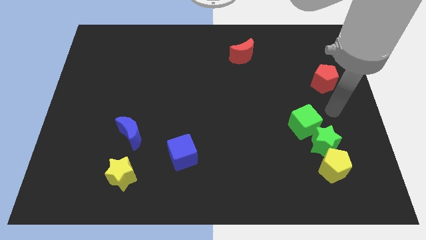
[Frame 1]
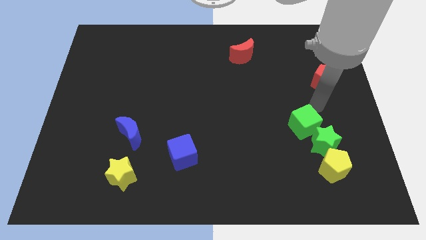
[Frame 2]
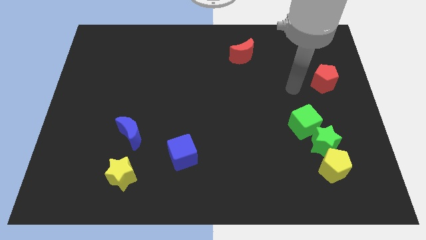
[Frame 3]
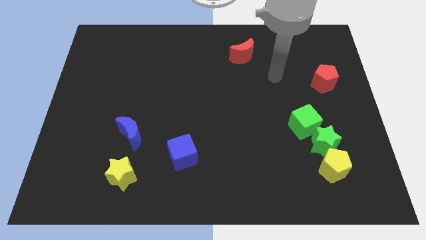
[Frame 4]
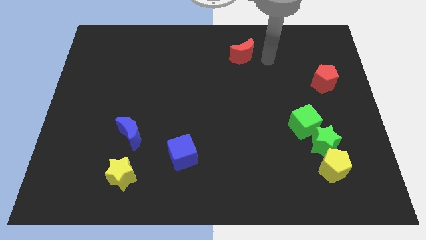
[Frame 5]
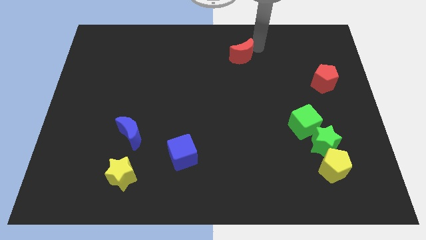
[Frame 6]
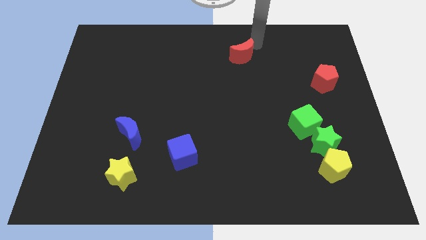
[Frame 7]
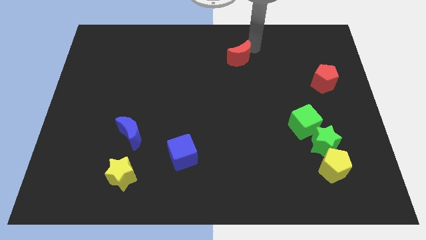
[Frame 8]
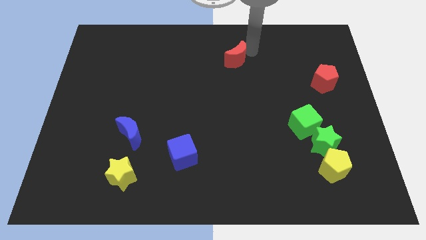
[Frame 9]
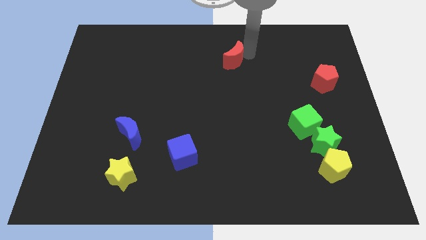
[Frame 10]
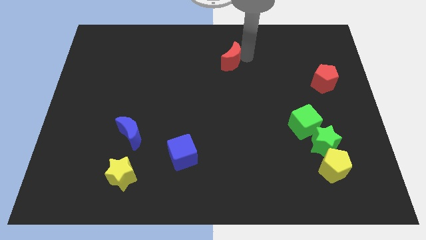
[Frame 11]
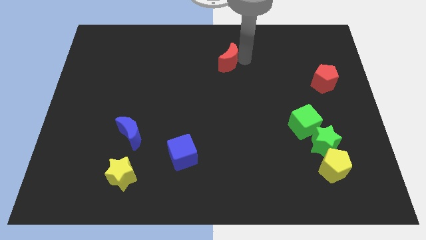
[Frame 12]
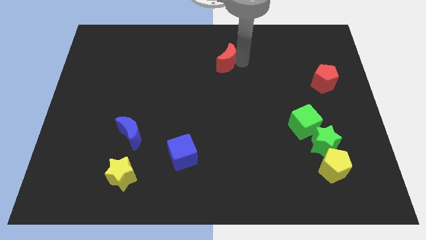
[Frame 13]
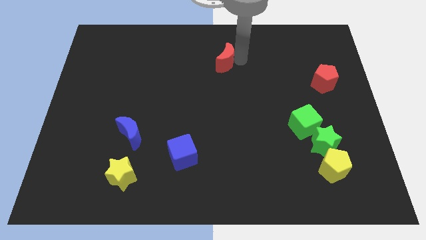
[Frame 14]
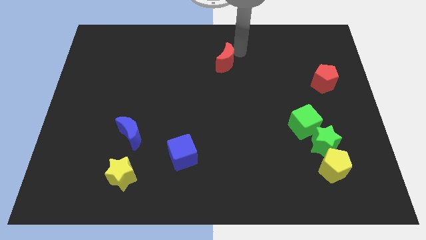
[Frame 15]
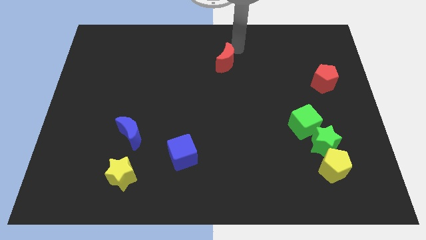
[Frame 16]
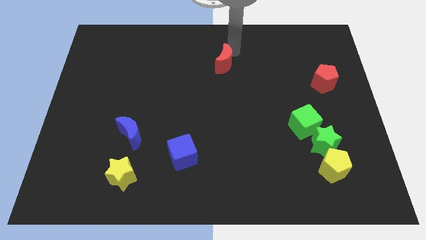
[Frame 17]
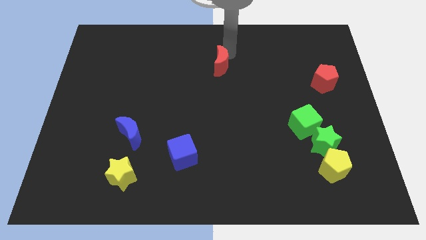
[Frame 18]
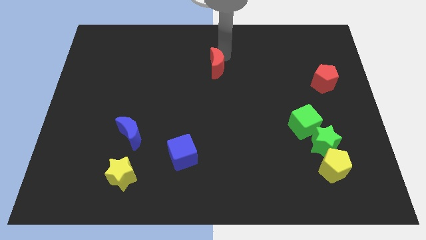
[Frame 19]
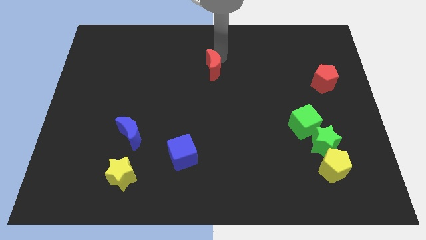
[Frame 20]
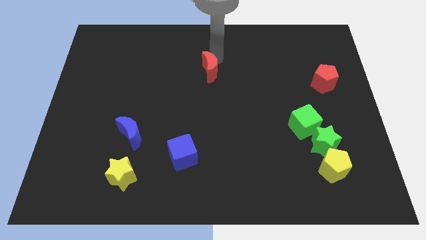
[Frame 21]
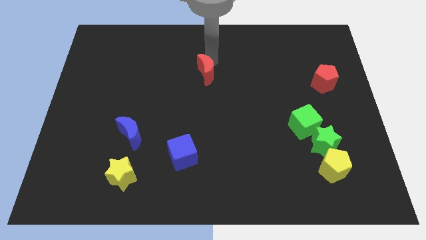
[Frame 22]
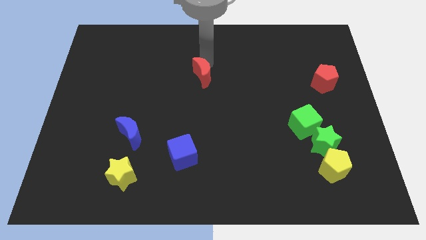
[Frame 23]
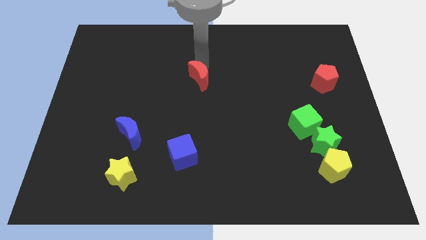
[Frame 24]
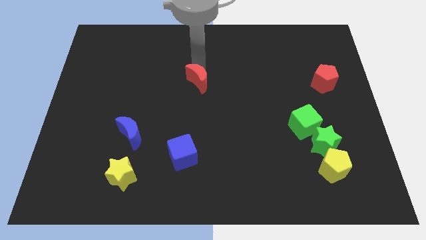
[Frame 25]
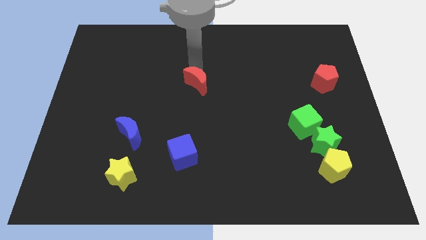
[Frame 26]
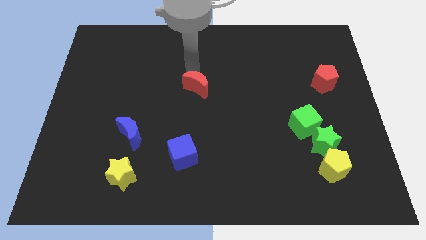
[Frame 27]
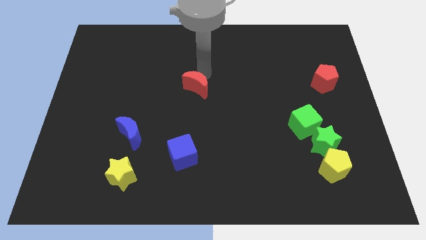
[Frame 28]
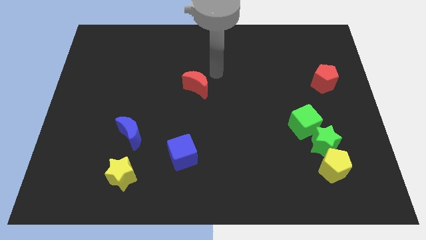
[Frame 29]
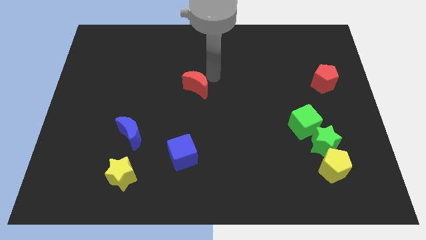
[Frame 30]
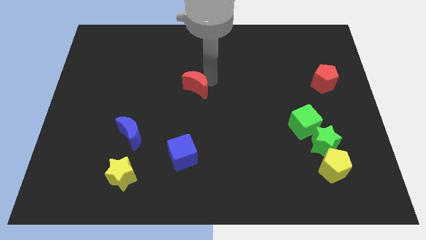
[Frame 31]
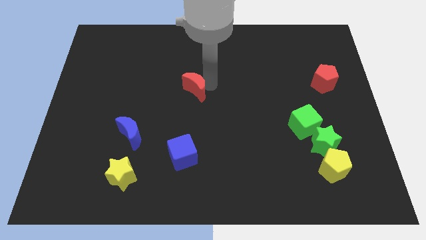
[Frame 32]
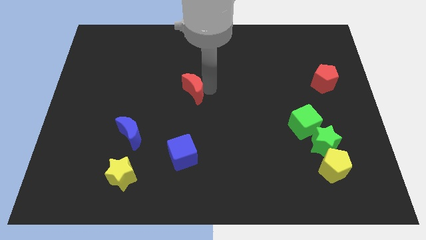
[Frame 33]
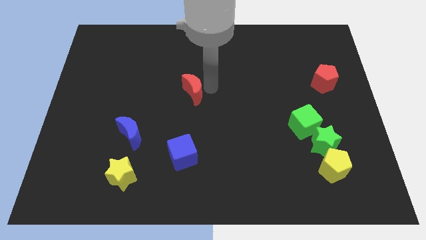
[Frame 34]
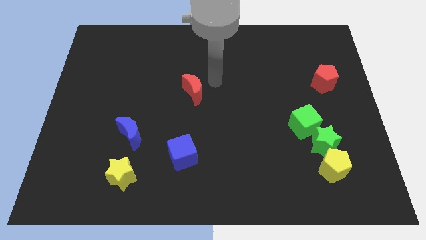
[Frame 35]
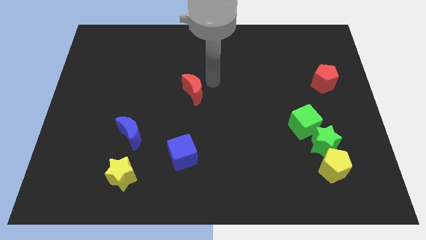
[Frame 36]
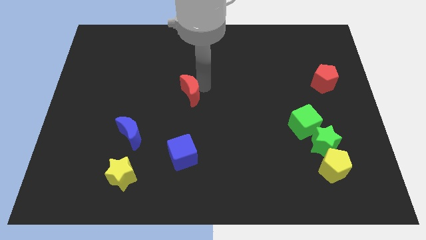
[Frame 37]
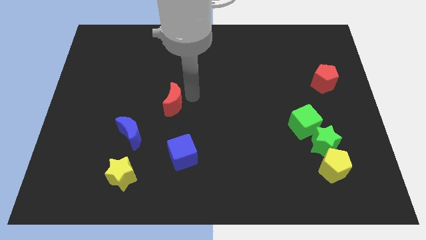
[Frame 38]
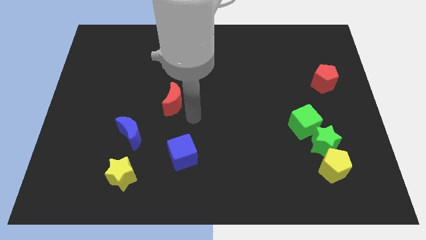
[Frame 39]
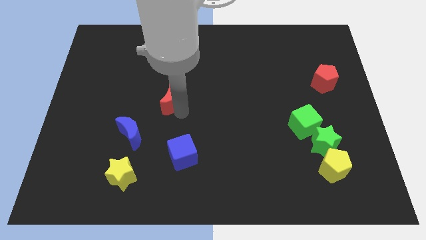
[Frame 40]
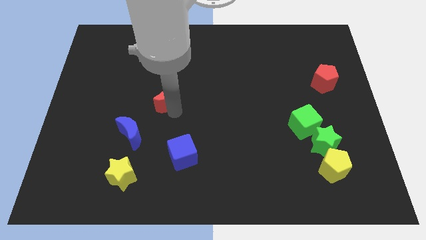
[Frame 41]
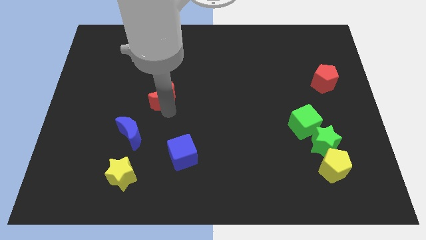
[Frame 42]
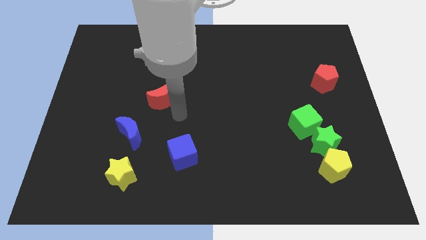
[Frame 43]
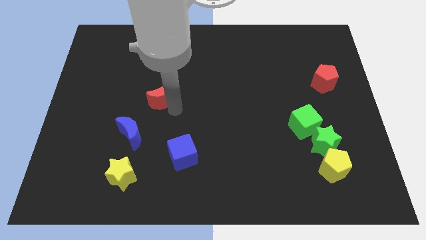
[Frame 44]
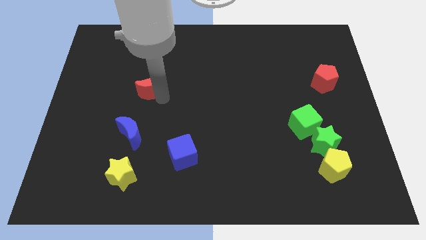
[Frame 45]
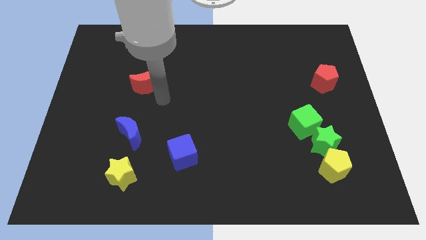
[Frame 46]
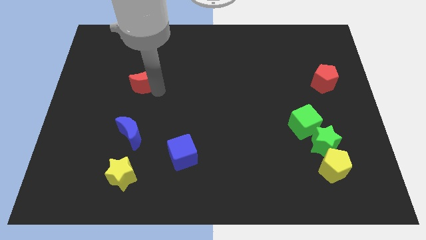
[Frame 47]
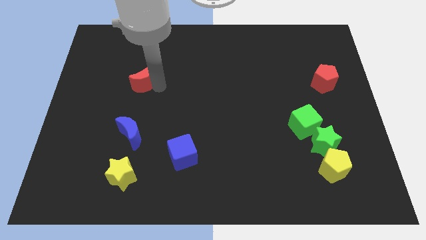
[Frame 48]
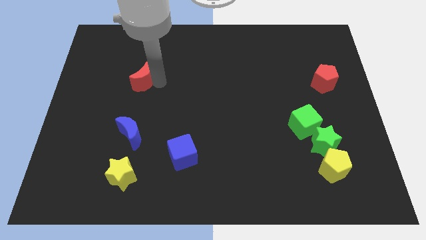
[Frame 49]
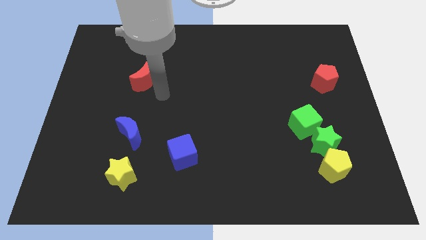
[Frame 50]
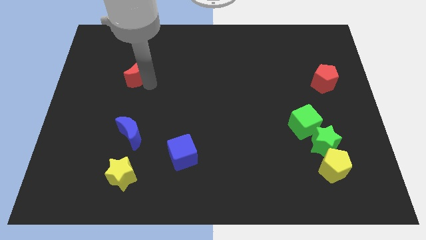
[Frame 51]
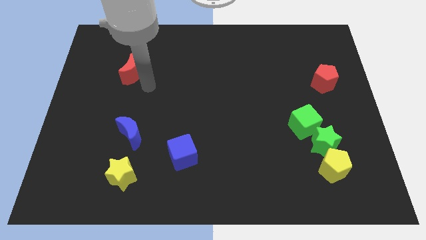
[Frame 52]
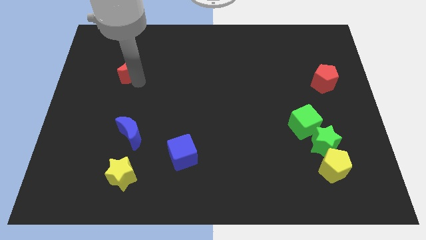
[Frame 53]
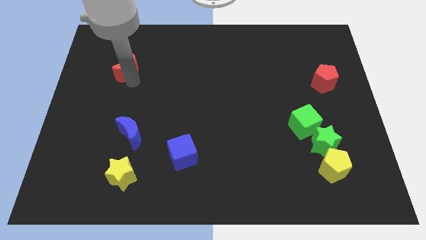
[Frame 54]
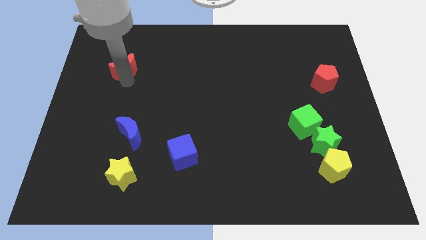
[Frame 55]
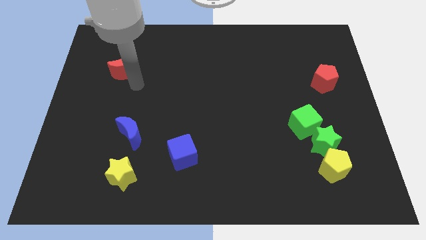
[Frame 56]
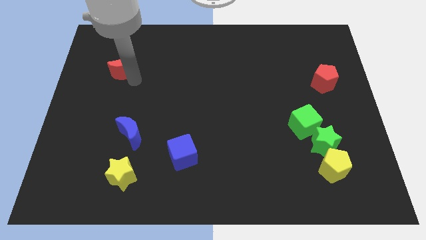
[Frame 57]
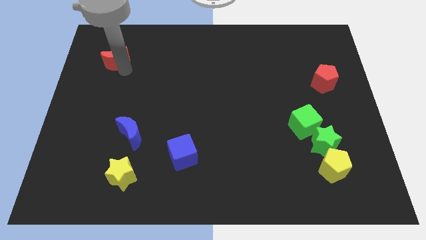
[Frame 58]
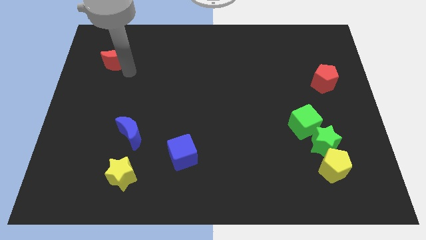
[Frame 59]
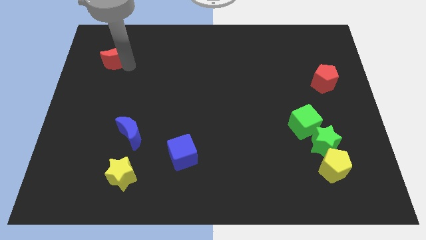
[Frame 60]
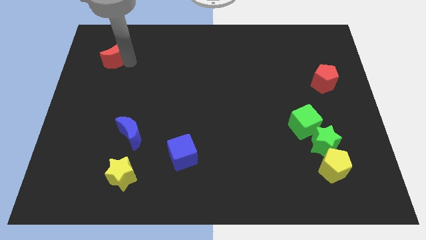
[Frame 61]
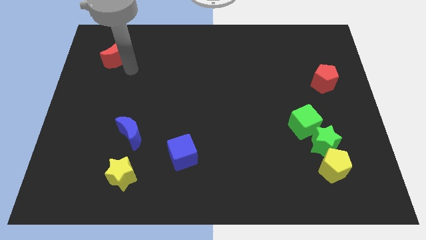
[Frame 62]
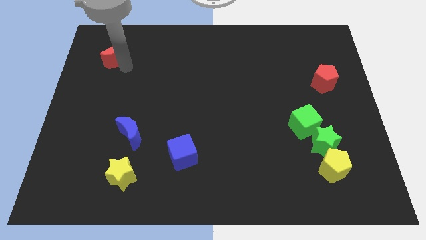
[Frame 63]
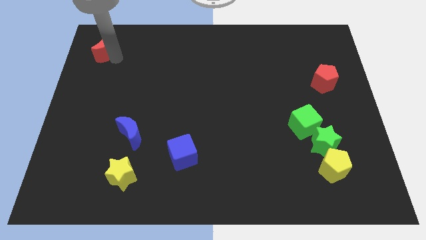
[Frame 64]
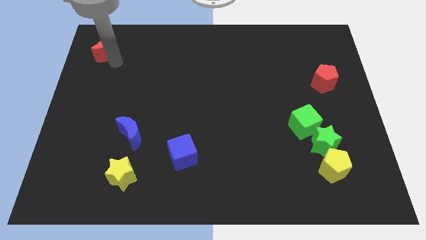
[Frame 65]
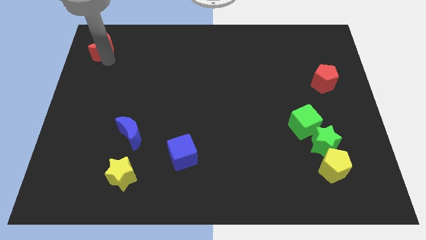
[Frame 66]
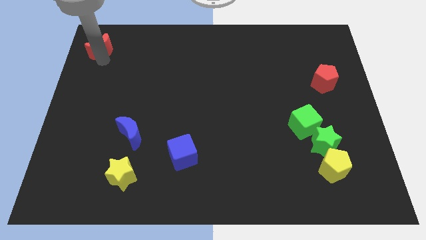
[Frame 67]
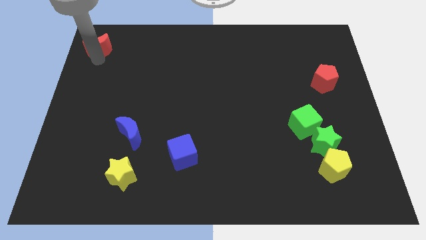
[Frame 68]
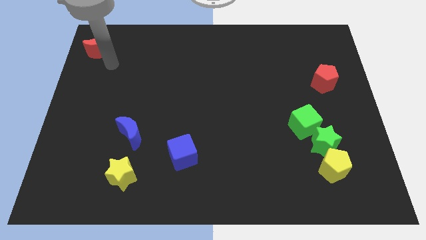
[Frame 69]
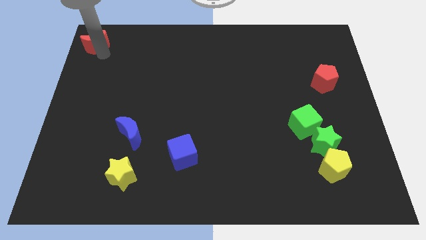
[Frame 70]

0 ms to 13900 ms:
slide the red moon to the upper left corner
